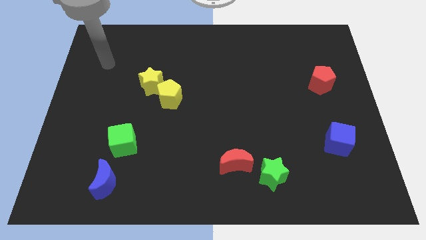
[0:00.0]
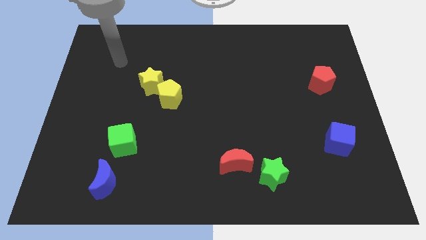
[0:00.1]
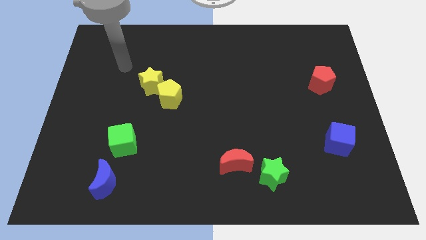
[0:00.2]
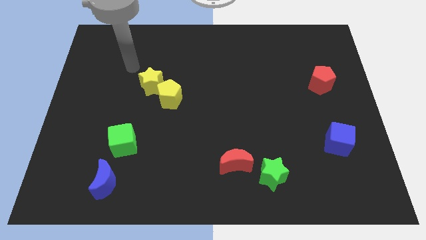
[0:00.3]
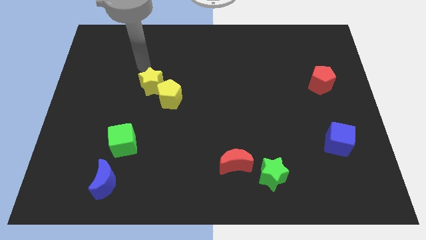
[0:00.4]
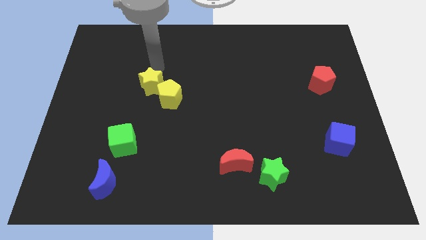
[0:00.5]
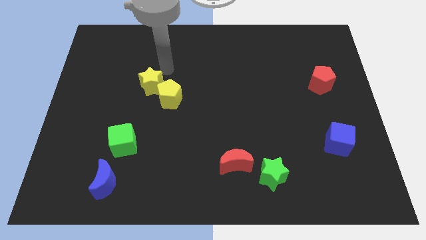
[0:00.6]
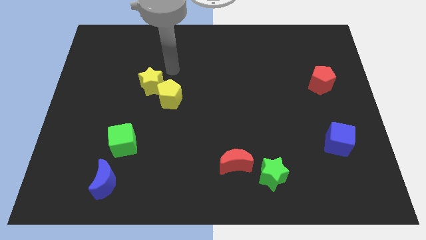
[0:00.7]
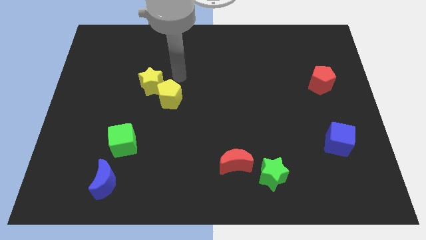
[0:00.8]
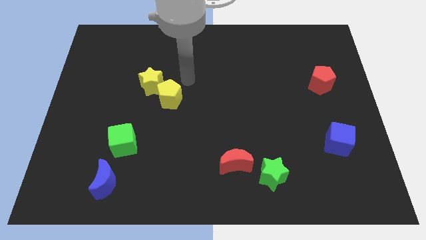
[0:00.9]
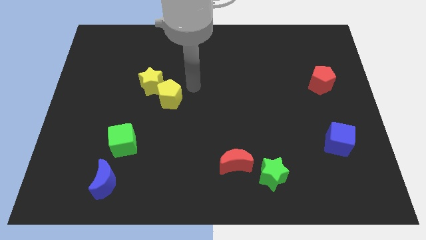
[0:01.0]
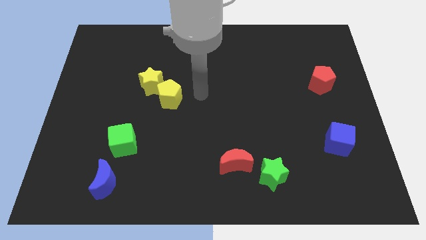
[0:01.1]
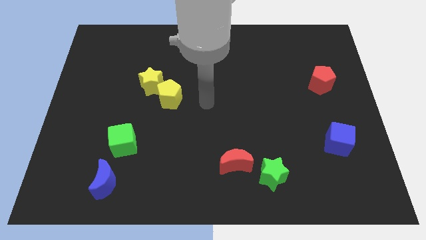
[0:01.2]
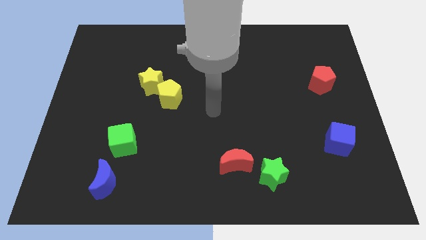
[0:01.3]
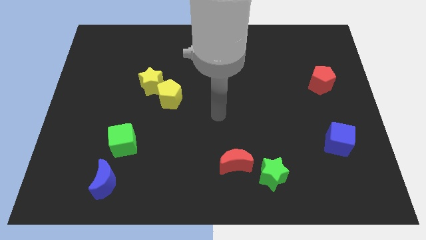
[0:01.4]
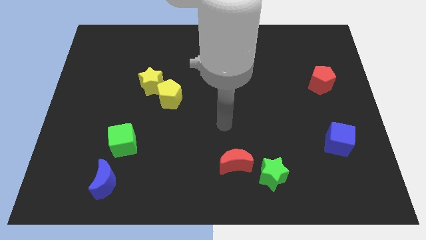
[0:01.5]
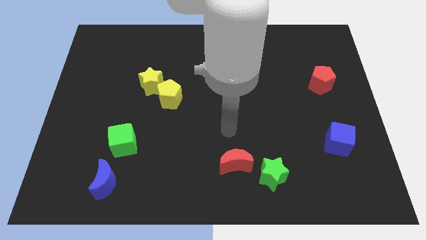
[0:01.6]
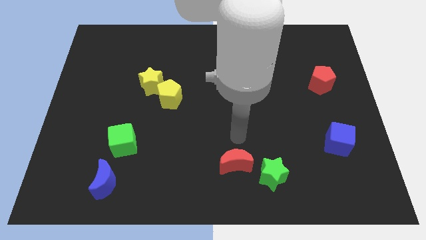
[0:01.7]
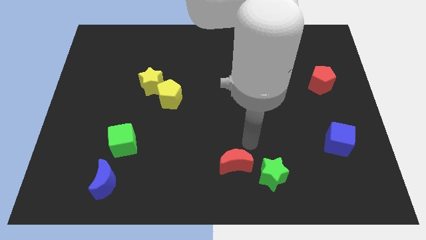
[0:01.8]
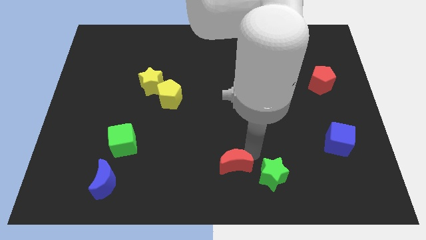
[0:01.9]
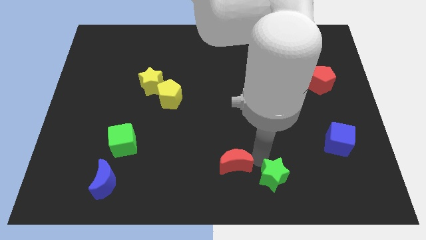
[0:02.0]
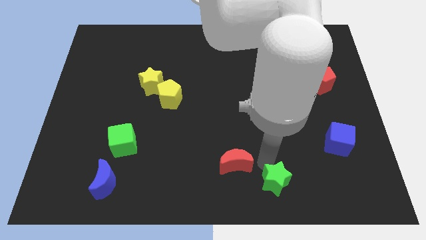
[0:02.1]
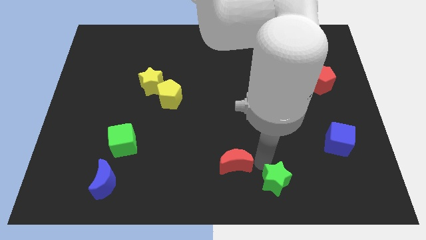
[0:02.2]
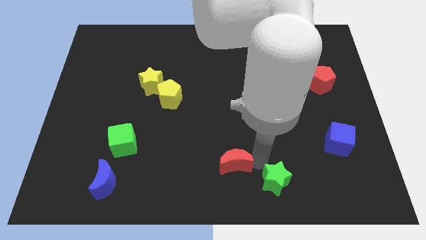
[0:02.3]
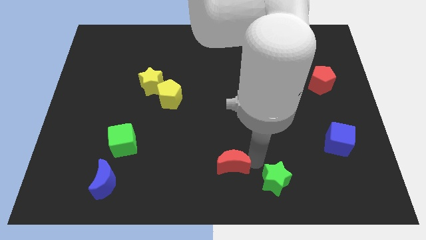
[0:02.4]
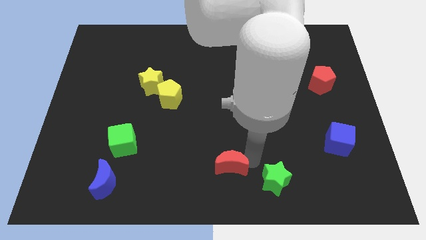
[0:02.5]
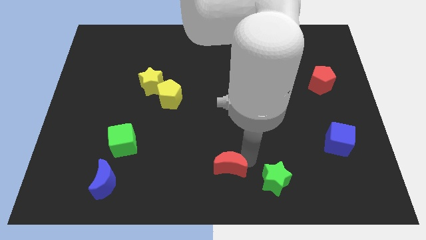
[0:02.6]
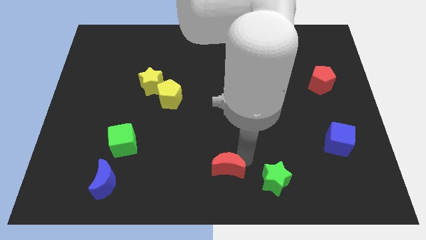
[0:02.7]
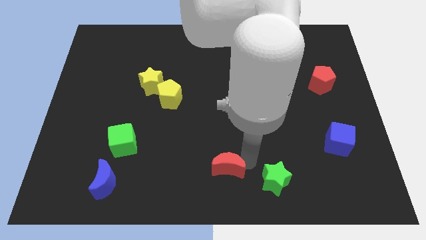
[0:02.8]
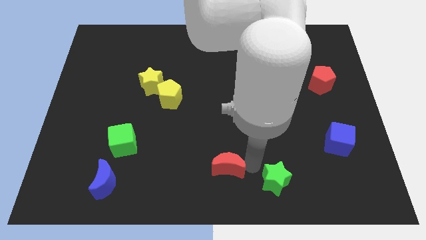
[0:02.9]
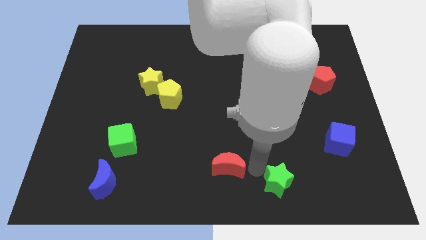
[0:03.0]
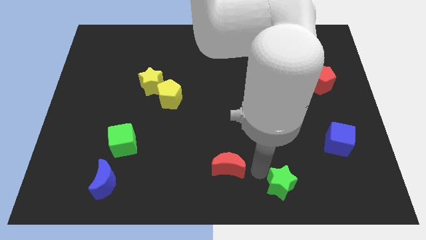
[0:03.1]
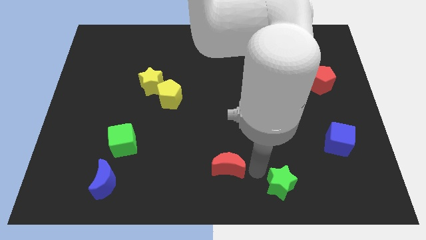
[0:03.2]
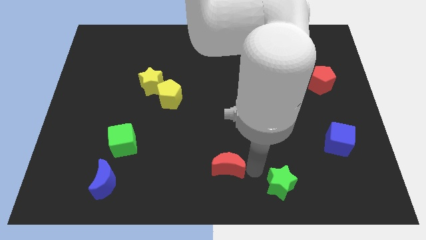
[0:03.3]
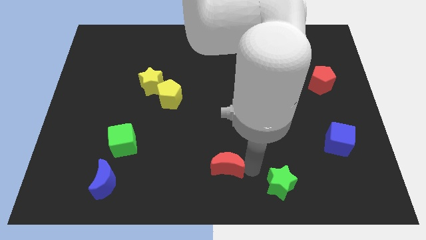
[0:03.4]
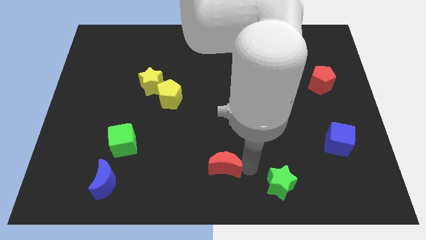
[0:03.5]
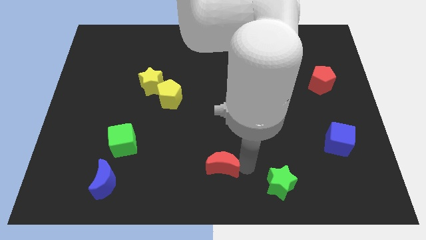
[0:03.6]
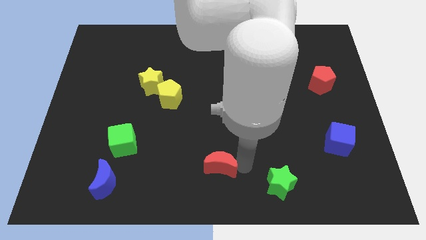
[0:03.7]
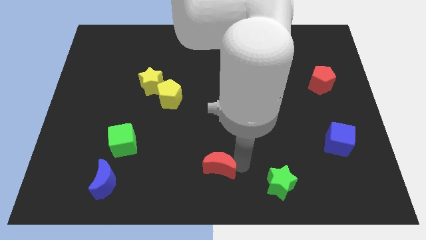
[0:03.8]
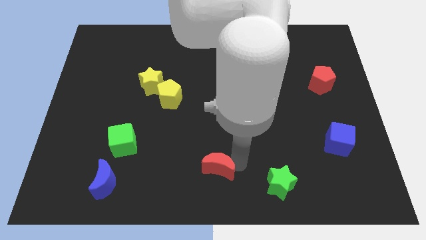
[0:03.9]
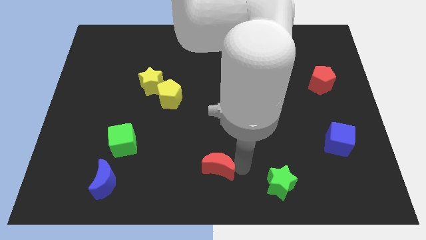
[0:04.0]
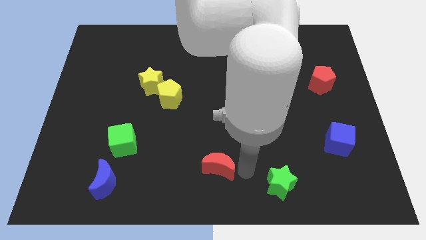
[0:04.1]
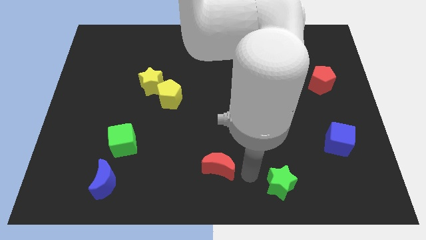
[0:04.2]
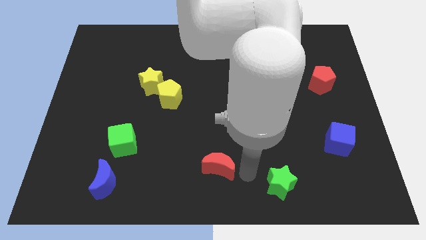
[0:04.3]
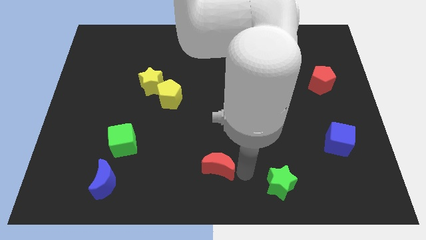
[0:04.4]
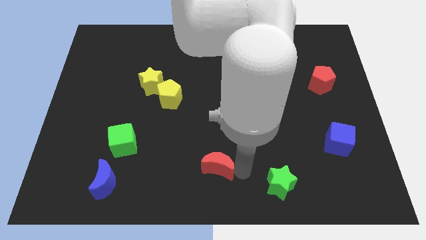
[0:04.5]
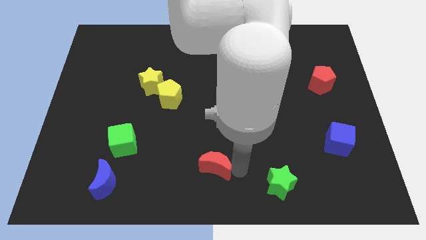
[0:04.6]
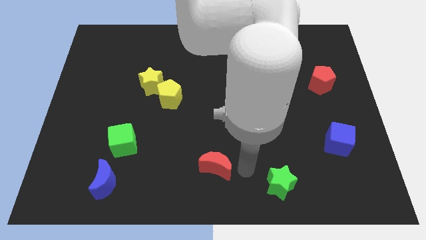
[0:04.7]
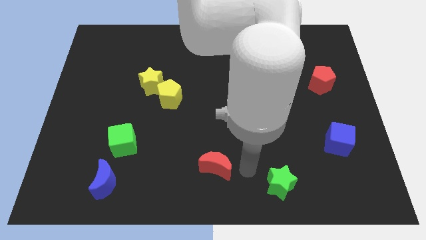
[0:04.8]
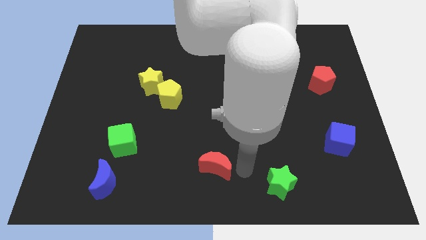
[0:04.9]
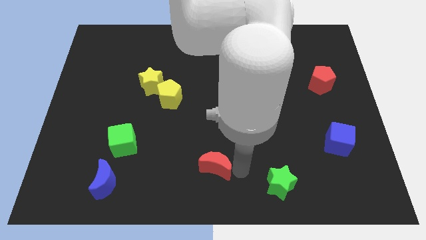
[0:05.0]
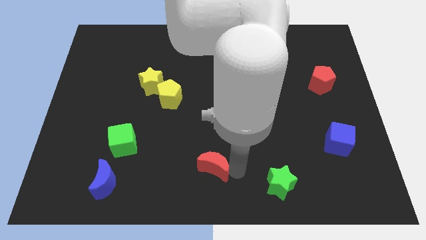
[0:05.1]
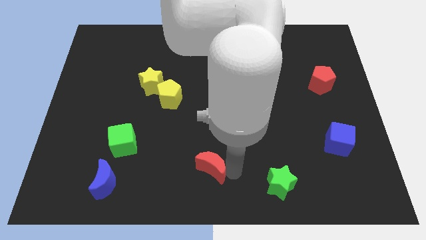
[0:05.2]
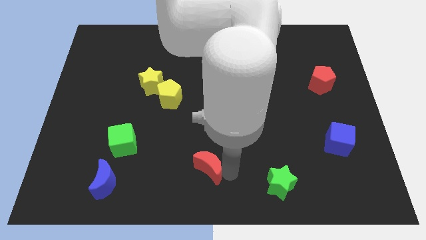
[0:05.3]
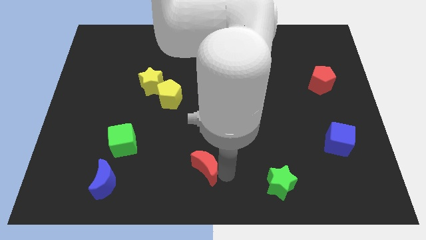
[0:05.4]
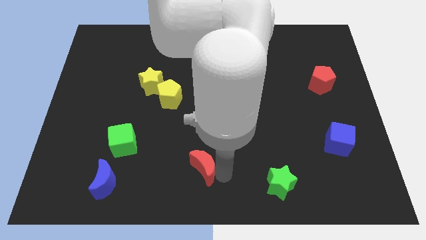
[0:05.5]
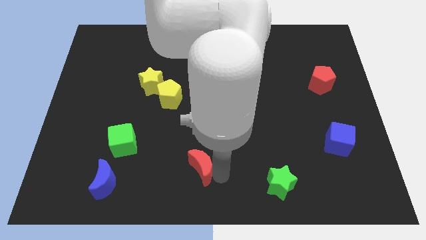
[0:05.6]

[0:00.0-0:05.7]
slightly move the red moon to the left

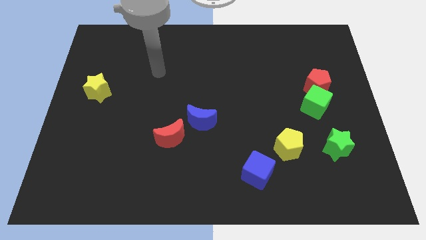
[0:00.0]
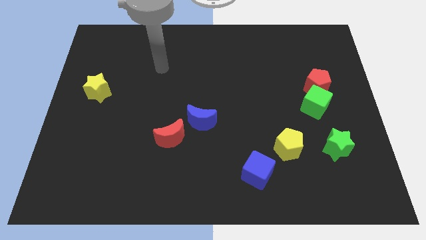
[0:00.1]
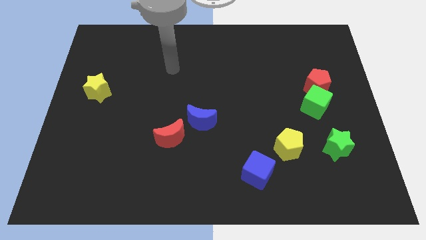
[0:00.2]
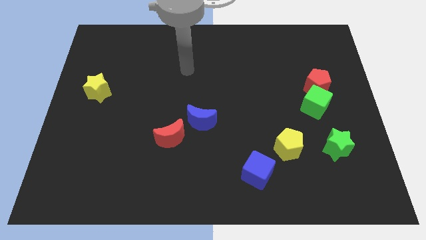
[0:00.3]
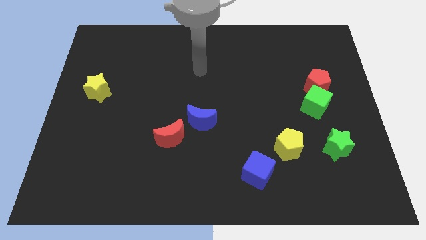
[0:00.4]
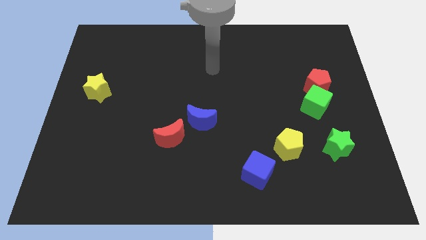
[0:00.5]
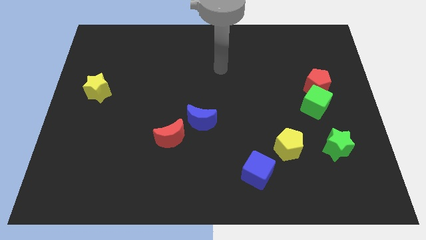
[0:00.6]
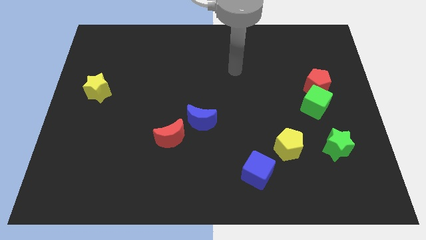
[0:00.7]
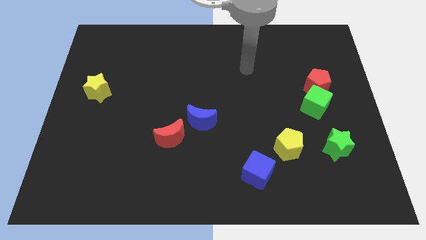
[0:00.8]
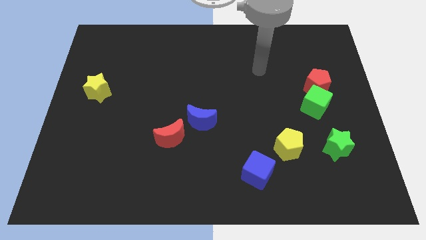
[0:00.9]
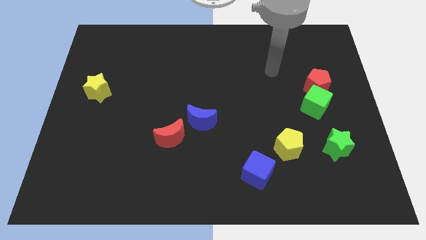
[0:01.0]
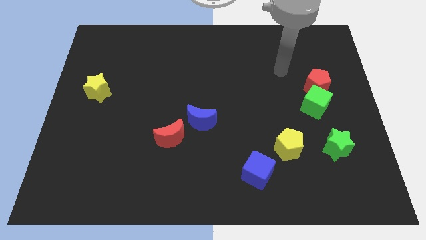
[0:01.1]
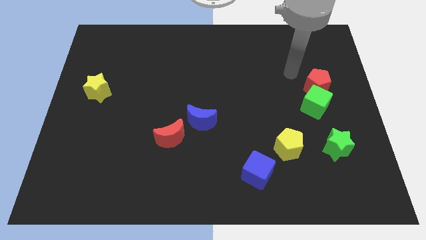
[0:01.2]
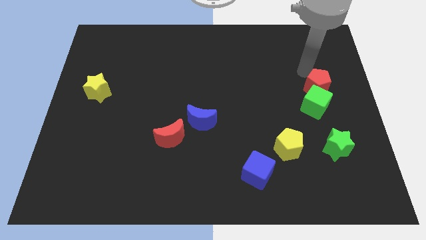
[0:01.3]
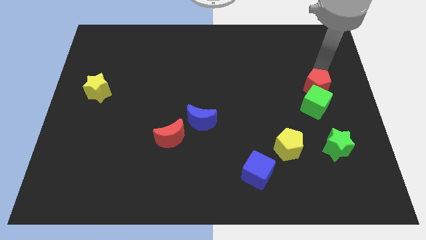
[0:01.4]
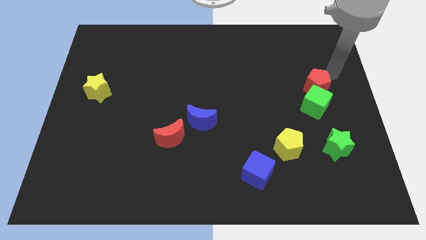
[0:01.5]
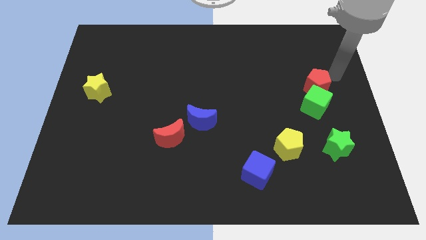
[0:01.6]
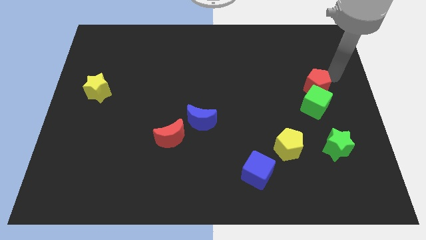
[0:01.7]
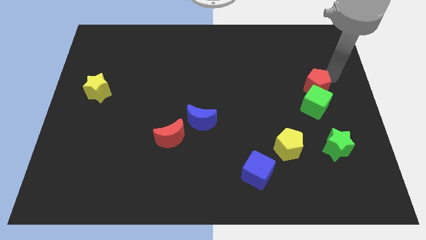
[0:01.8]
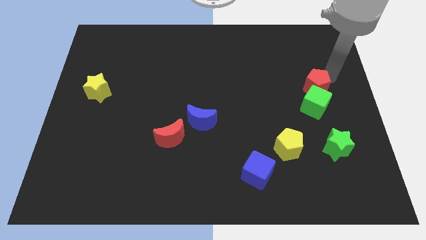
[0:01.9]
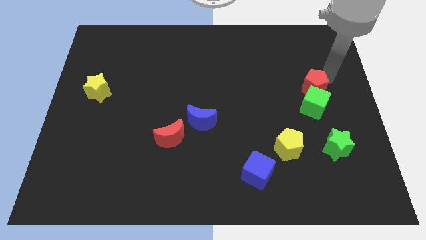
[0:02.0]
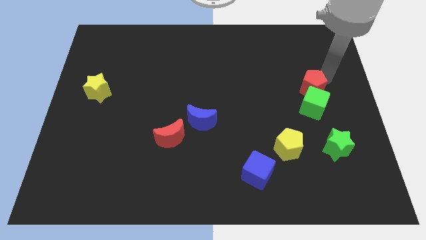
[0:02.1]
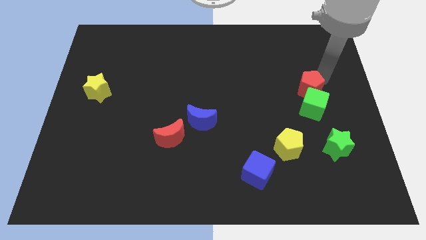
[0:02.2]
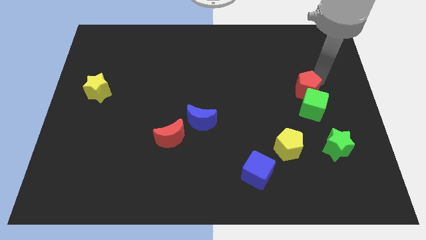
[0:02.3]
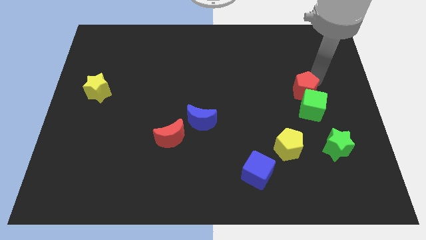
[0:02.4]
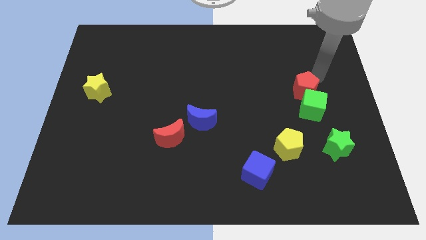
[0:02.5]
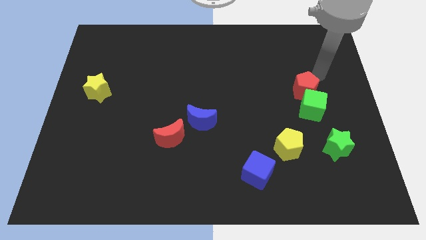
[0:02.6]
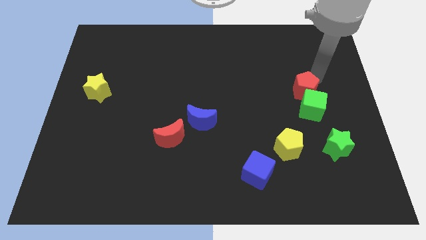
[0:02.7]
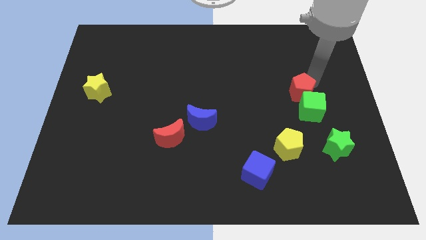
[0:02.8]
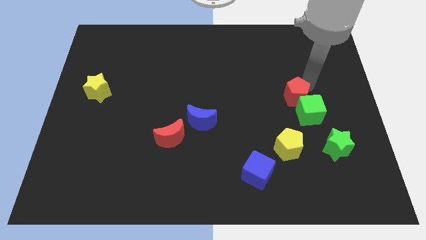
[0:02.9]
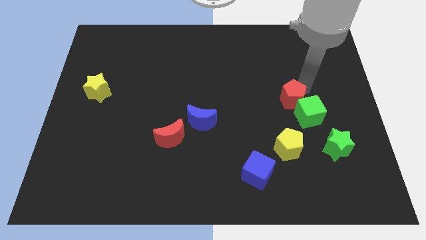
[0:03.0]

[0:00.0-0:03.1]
push the red pentagon a little down and then to the left
